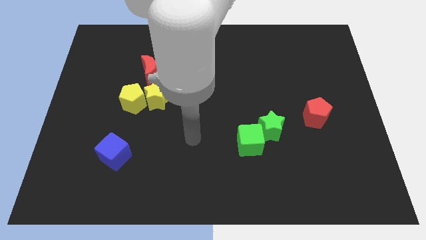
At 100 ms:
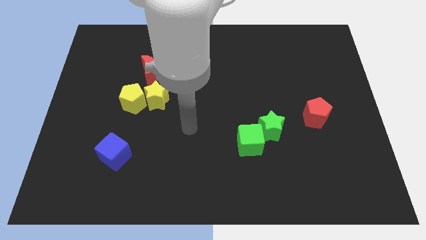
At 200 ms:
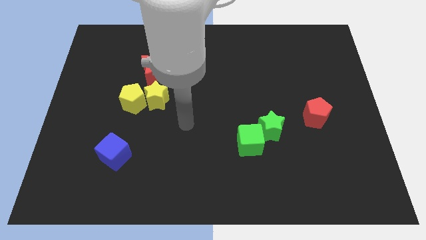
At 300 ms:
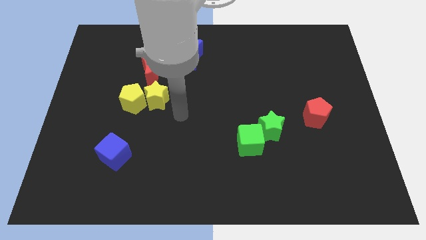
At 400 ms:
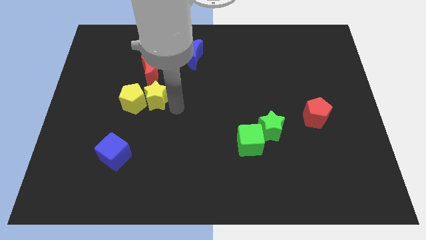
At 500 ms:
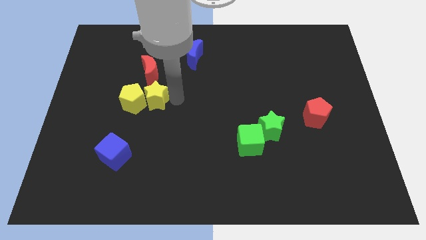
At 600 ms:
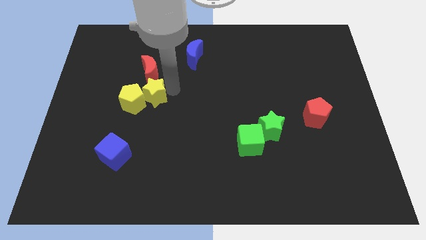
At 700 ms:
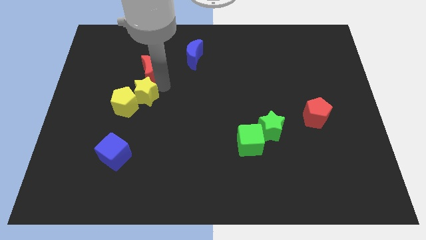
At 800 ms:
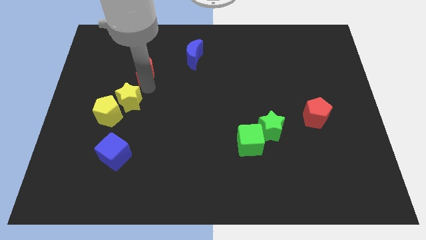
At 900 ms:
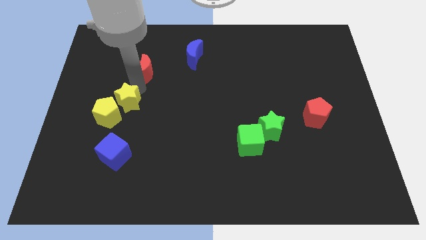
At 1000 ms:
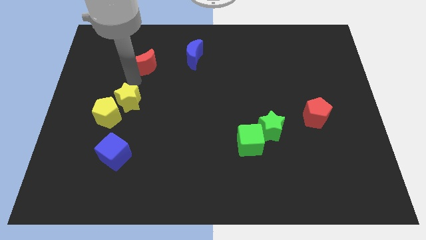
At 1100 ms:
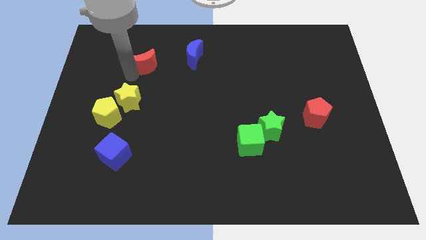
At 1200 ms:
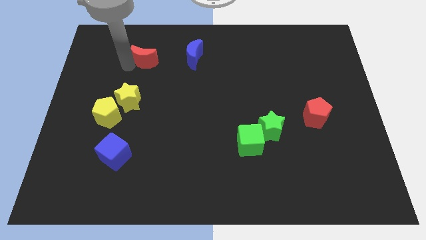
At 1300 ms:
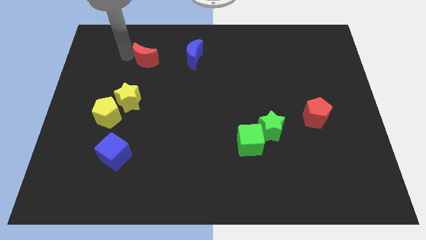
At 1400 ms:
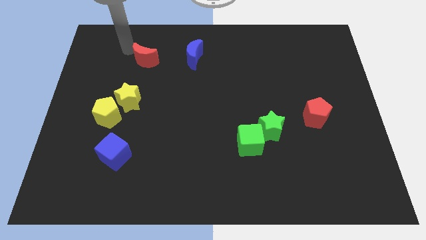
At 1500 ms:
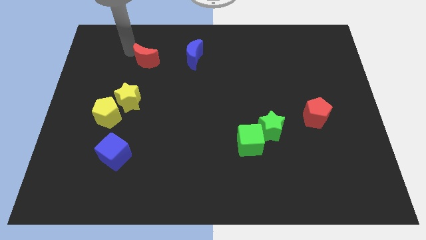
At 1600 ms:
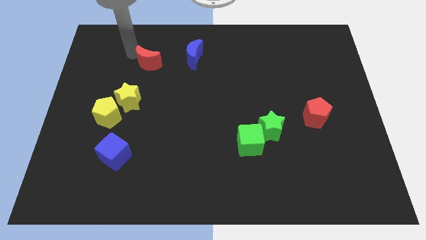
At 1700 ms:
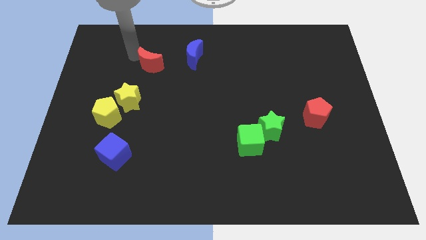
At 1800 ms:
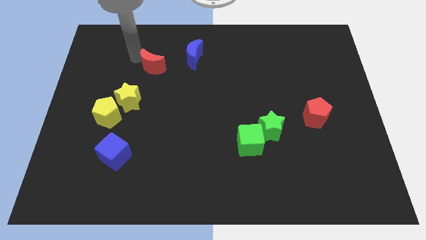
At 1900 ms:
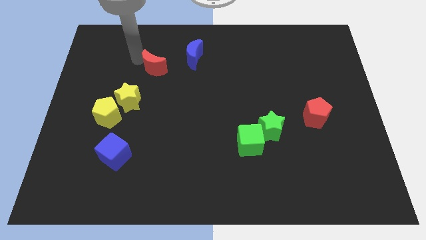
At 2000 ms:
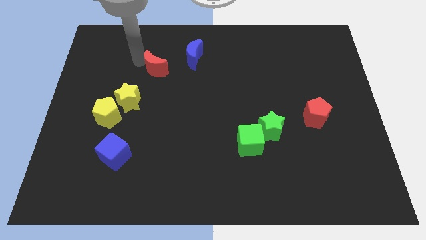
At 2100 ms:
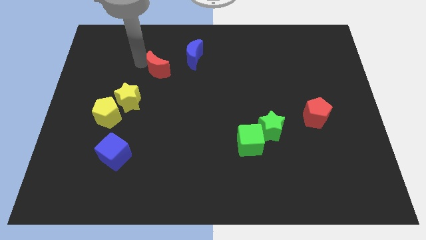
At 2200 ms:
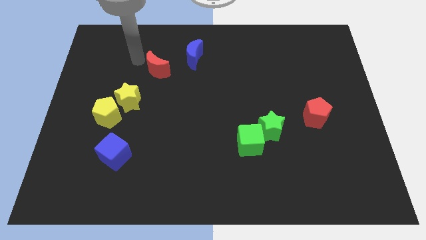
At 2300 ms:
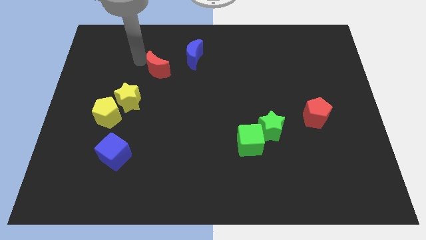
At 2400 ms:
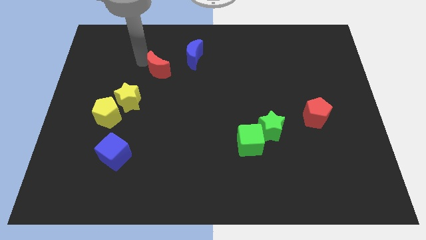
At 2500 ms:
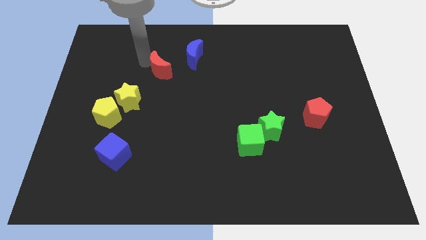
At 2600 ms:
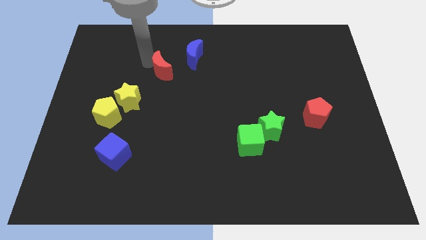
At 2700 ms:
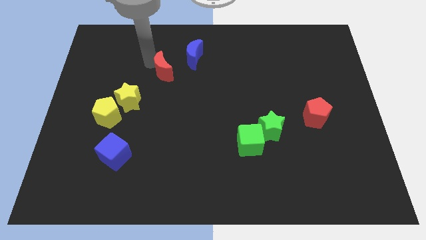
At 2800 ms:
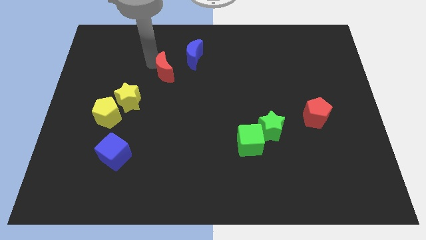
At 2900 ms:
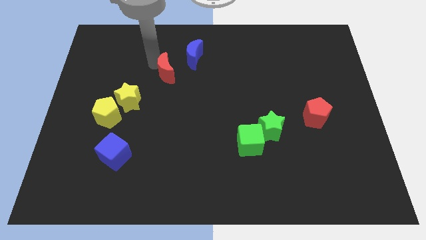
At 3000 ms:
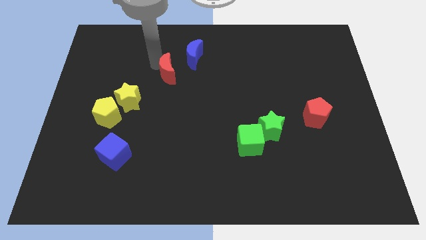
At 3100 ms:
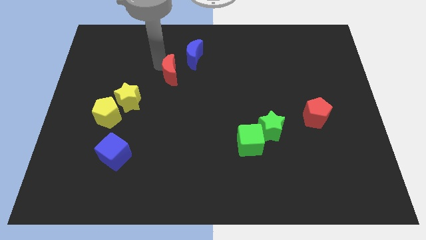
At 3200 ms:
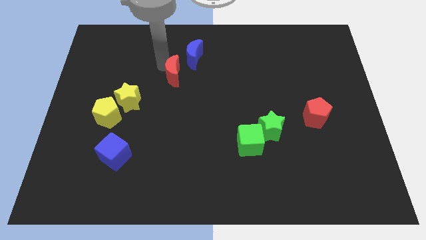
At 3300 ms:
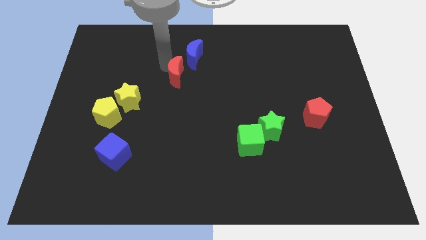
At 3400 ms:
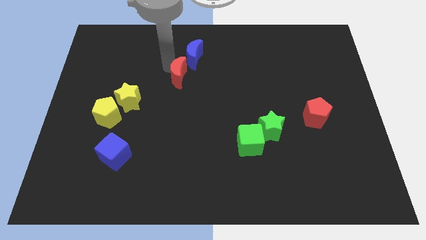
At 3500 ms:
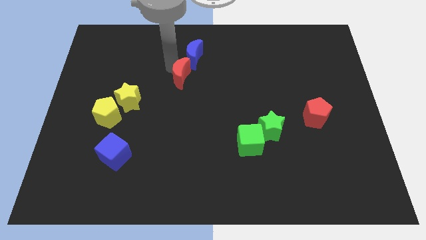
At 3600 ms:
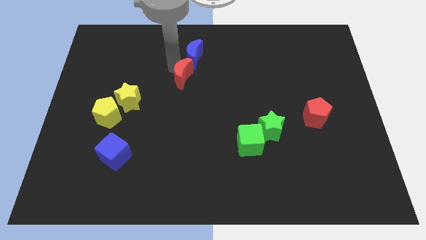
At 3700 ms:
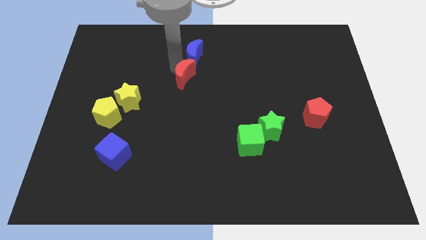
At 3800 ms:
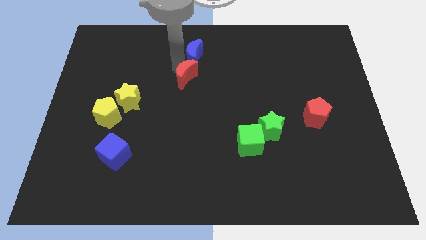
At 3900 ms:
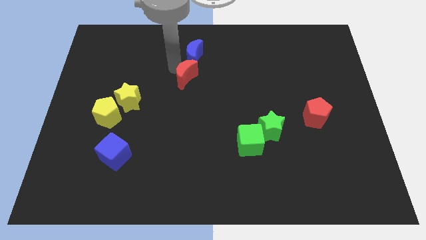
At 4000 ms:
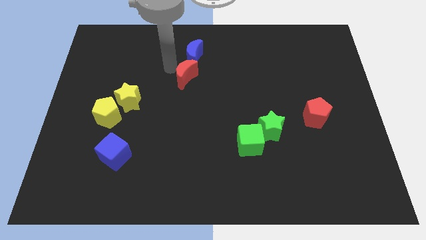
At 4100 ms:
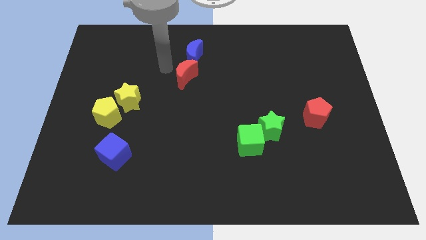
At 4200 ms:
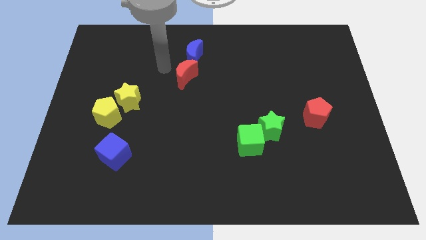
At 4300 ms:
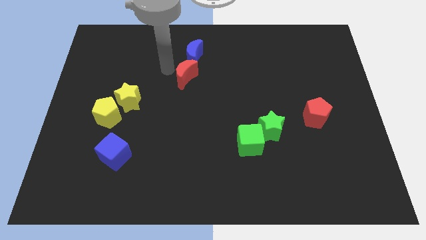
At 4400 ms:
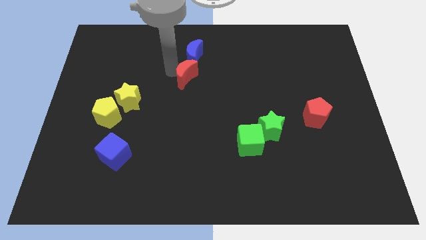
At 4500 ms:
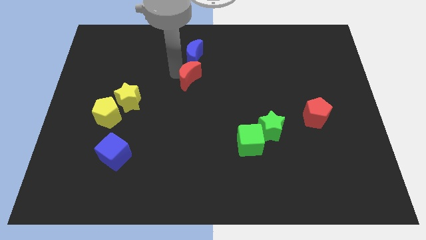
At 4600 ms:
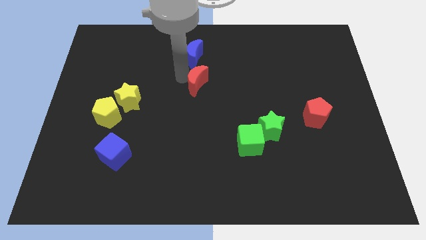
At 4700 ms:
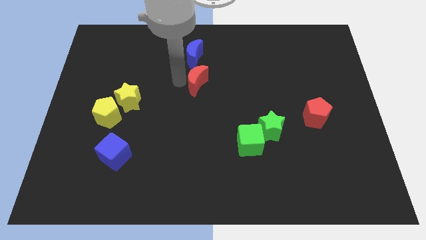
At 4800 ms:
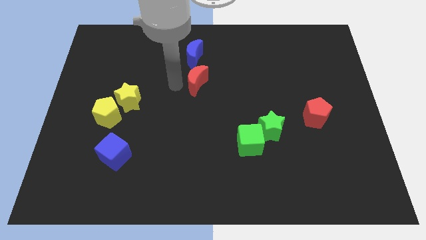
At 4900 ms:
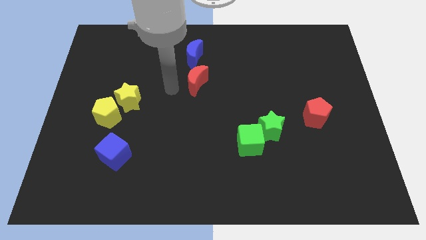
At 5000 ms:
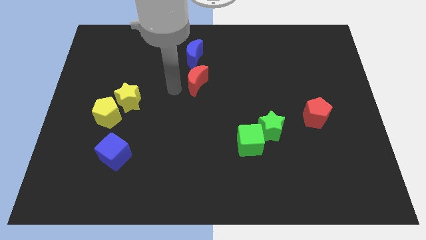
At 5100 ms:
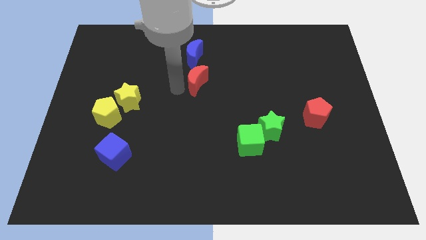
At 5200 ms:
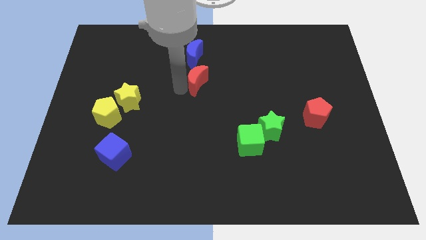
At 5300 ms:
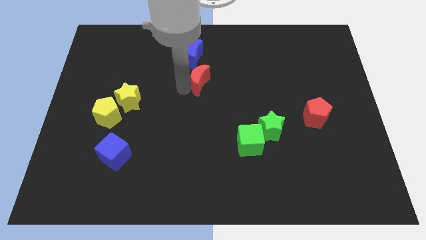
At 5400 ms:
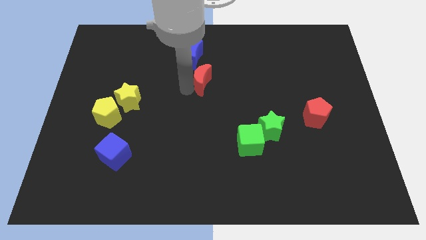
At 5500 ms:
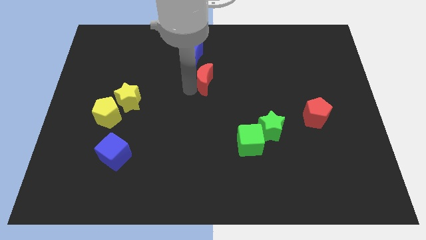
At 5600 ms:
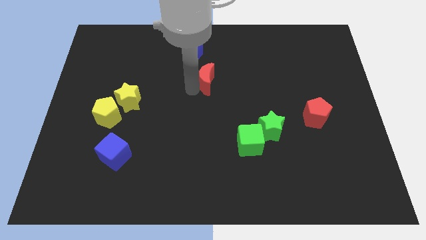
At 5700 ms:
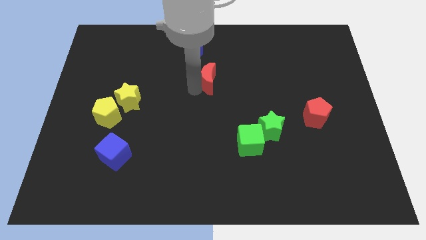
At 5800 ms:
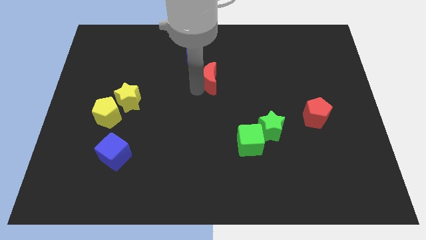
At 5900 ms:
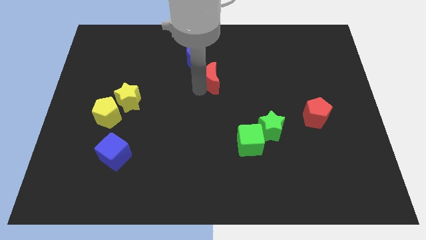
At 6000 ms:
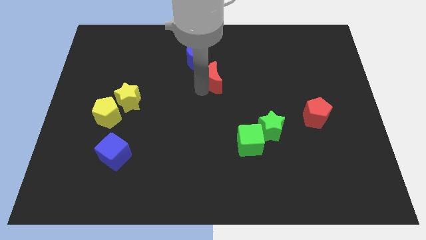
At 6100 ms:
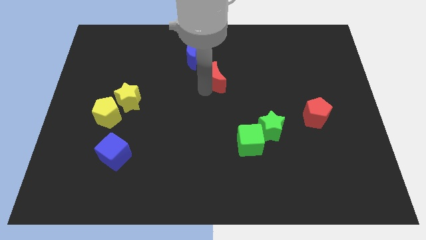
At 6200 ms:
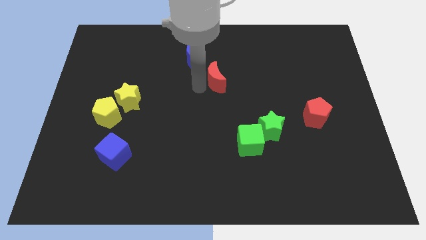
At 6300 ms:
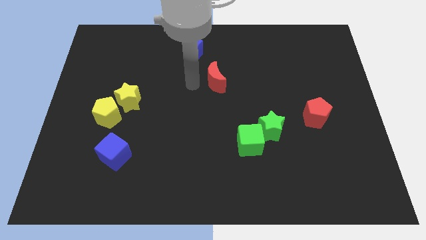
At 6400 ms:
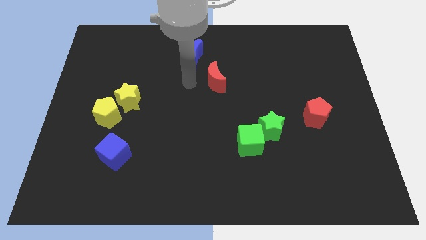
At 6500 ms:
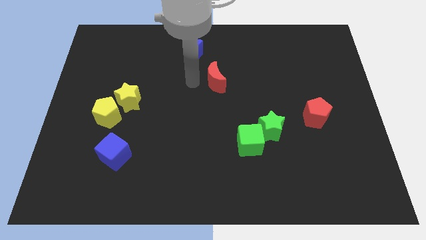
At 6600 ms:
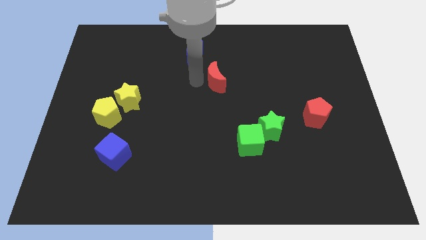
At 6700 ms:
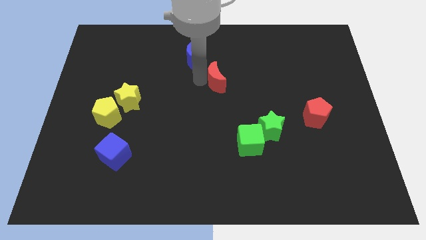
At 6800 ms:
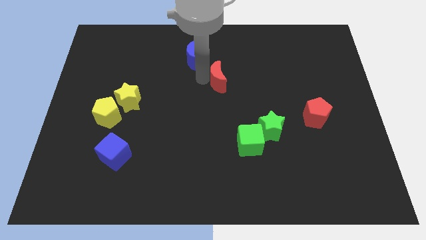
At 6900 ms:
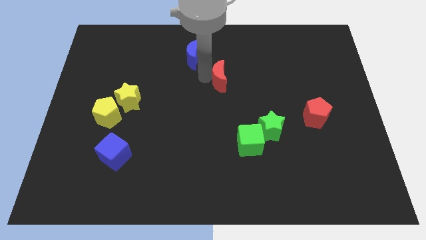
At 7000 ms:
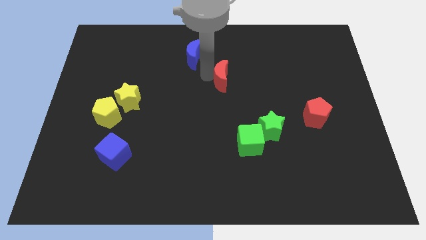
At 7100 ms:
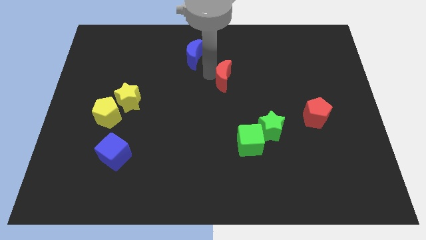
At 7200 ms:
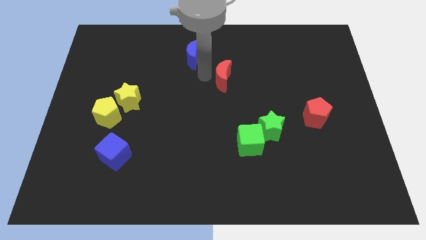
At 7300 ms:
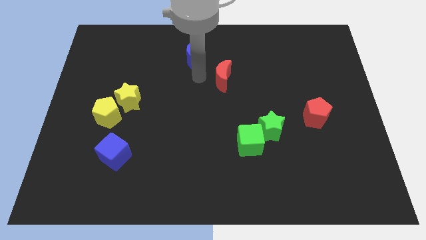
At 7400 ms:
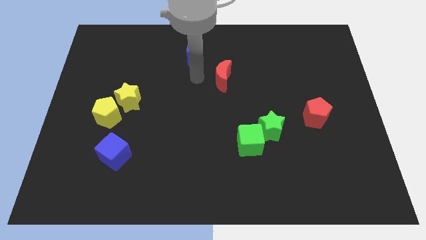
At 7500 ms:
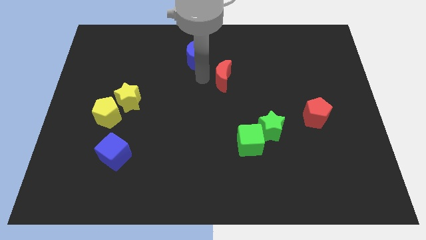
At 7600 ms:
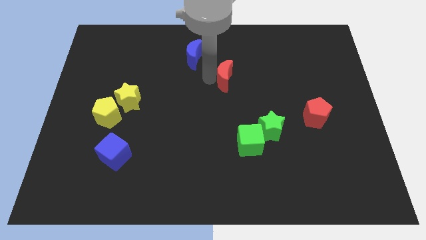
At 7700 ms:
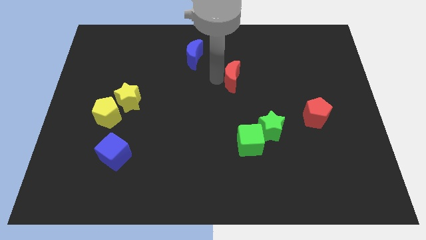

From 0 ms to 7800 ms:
move the red moon to the right
